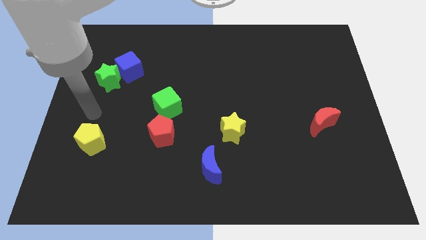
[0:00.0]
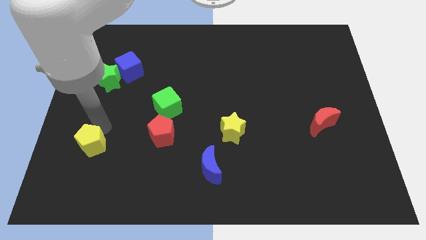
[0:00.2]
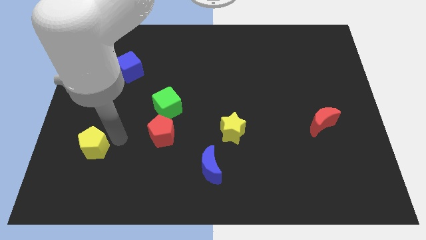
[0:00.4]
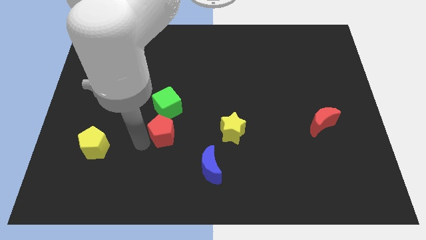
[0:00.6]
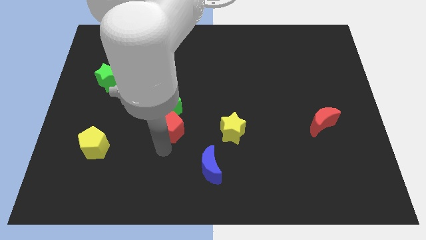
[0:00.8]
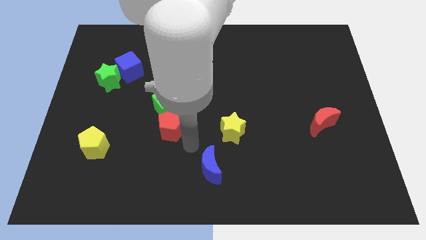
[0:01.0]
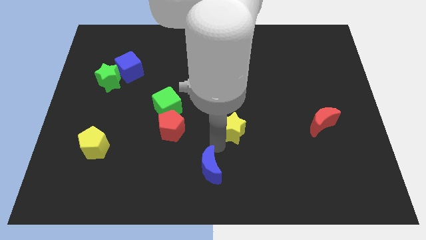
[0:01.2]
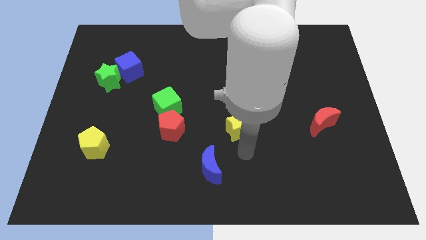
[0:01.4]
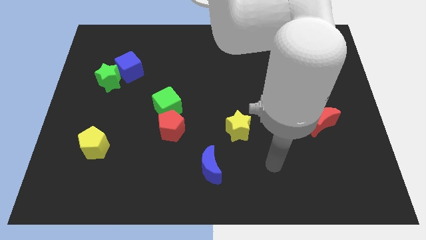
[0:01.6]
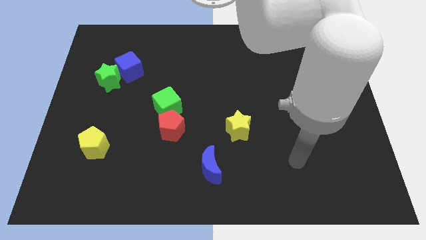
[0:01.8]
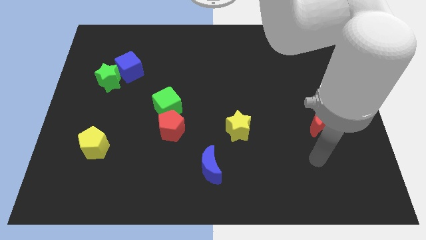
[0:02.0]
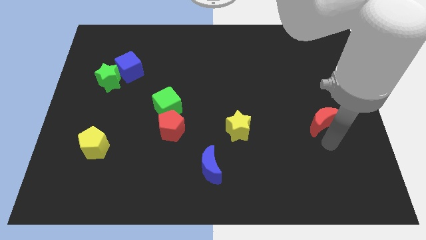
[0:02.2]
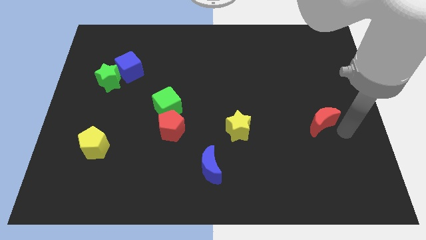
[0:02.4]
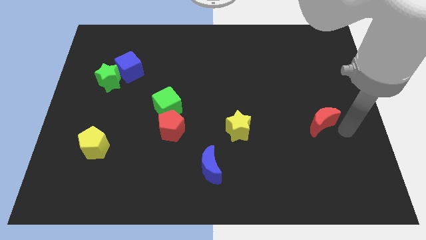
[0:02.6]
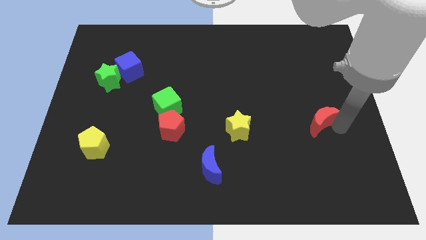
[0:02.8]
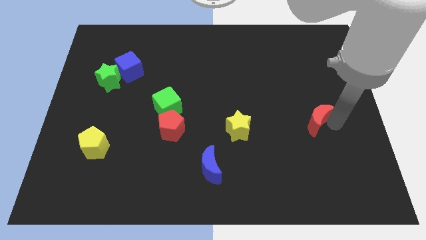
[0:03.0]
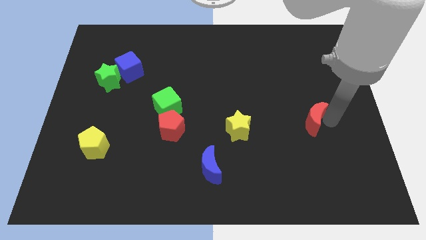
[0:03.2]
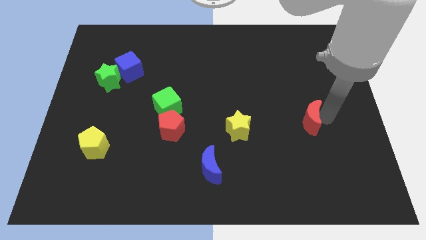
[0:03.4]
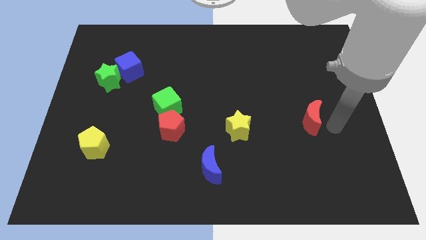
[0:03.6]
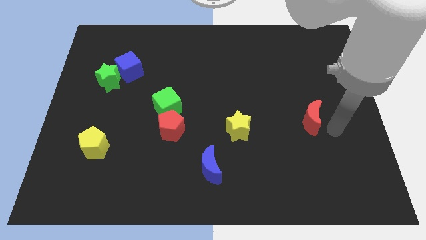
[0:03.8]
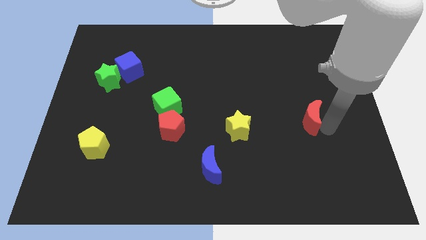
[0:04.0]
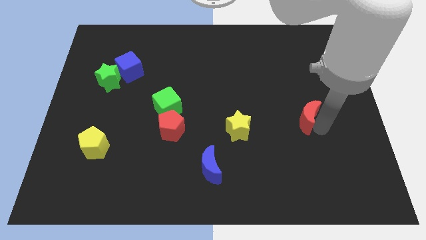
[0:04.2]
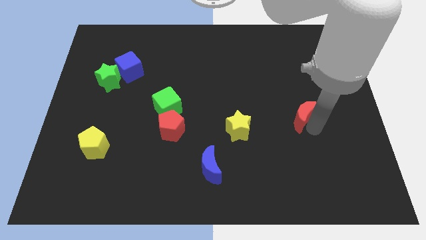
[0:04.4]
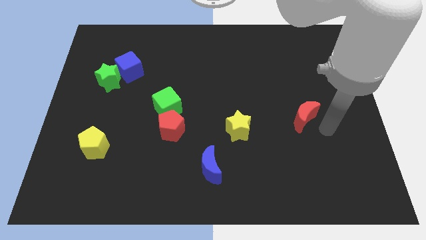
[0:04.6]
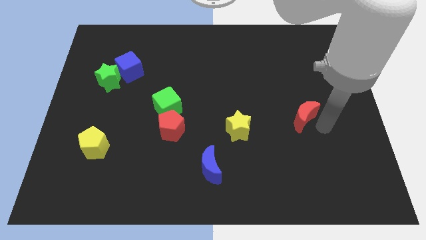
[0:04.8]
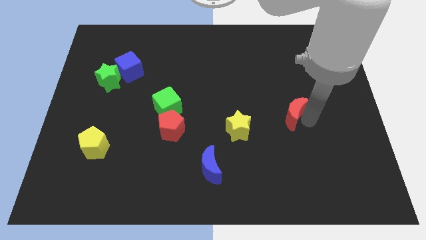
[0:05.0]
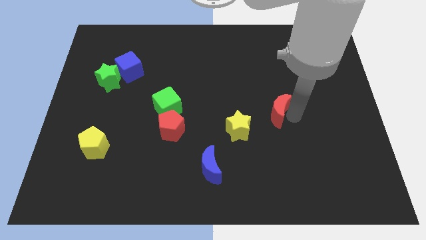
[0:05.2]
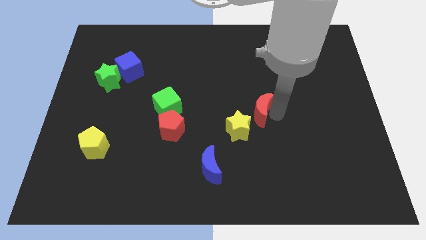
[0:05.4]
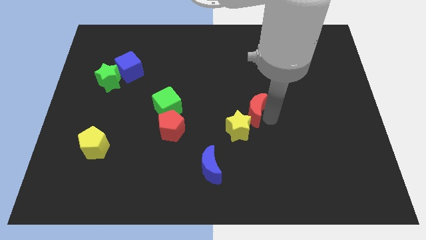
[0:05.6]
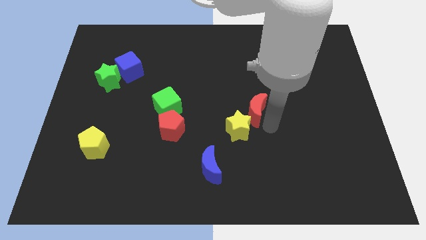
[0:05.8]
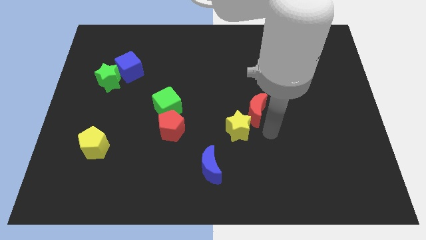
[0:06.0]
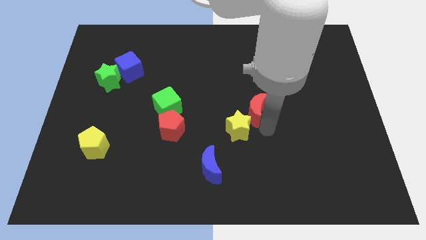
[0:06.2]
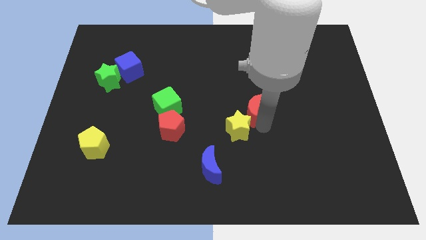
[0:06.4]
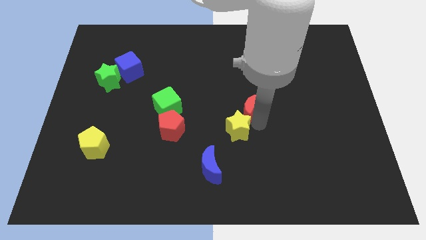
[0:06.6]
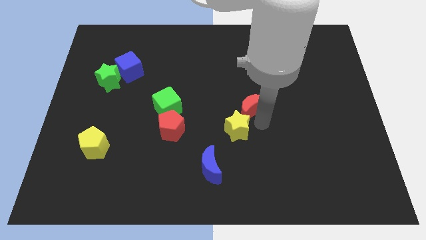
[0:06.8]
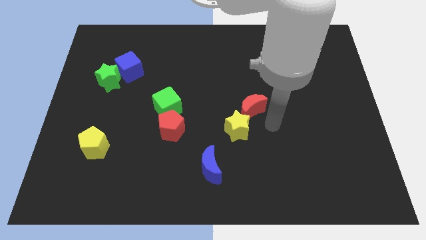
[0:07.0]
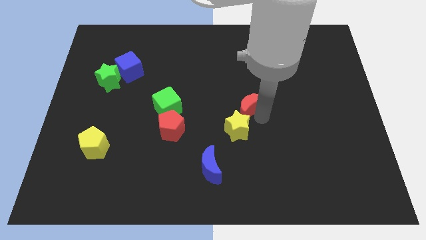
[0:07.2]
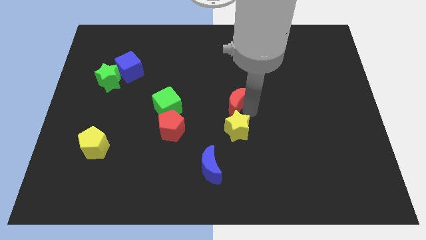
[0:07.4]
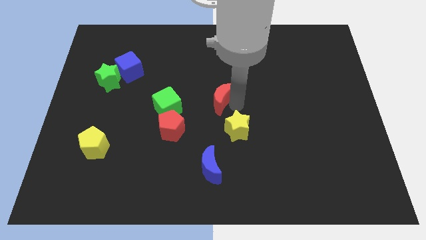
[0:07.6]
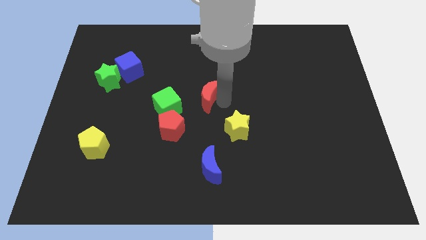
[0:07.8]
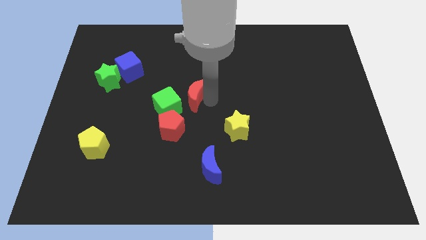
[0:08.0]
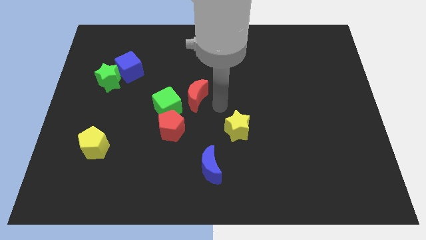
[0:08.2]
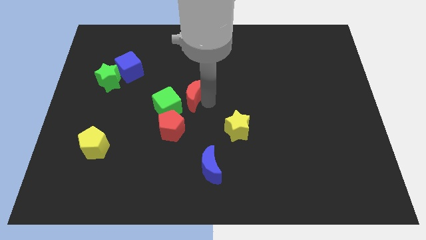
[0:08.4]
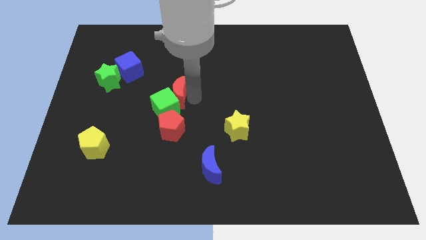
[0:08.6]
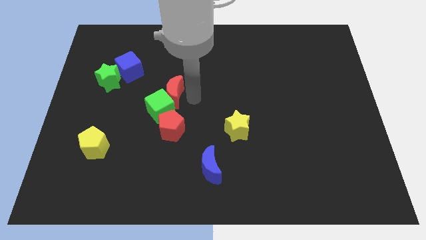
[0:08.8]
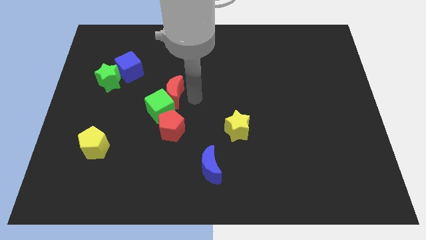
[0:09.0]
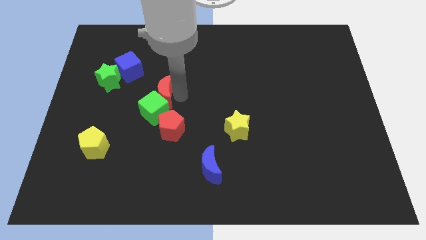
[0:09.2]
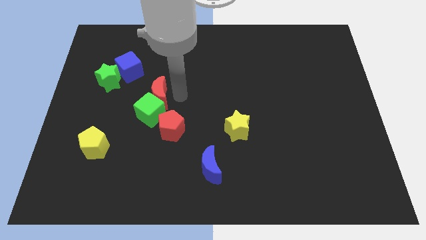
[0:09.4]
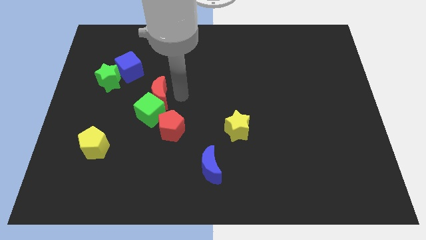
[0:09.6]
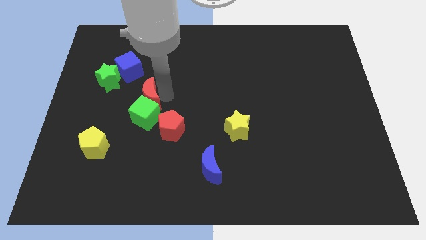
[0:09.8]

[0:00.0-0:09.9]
slide the red moon diagonally down and to the right of the green star

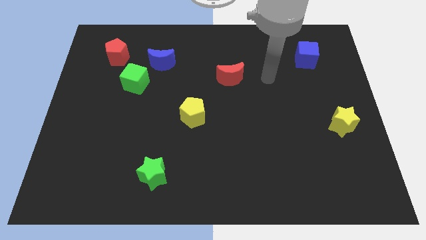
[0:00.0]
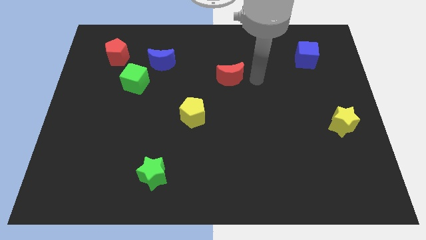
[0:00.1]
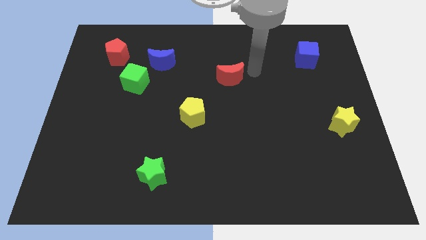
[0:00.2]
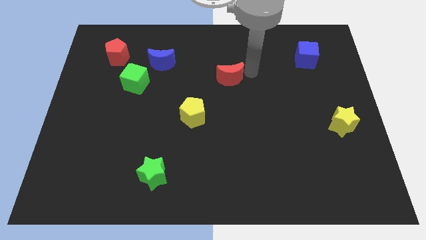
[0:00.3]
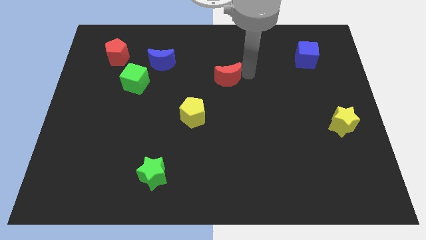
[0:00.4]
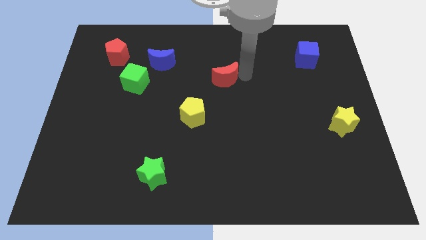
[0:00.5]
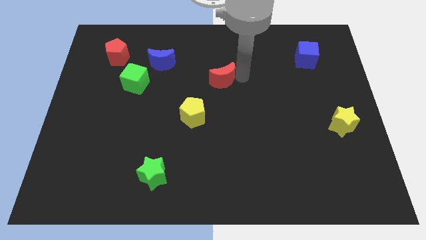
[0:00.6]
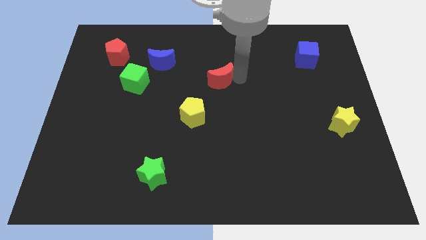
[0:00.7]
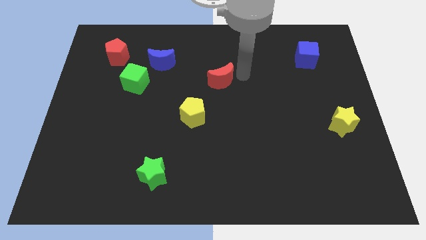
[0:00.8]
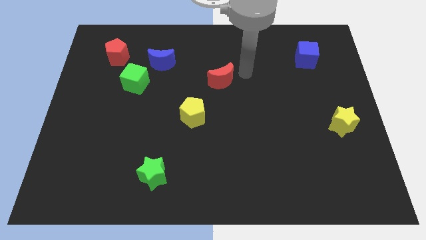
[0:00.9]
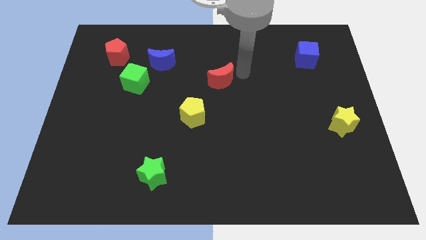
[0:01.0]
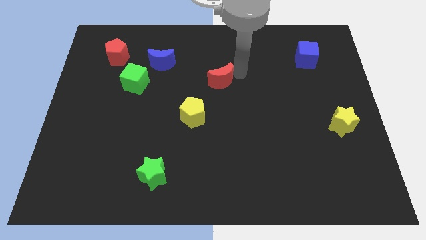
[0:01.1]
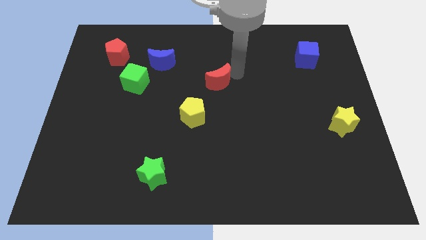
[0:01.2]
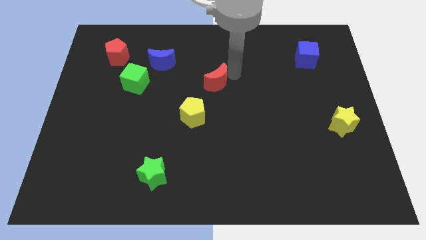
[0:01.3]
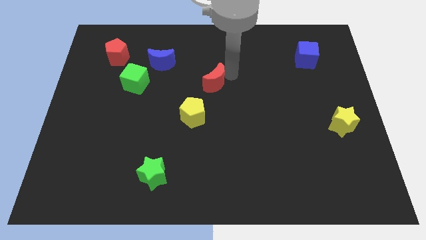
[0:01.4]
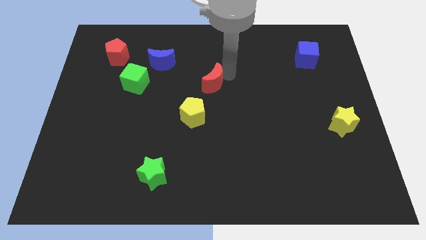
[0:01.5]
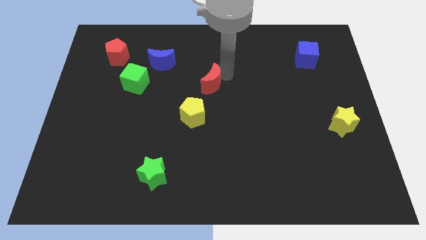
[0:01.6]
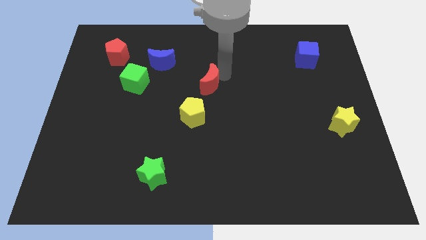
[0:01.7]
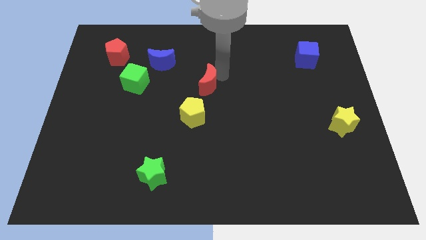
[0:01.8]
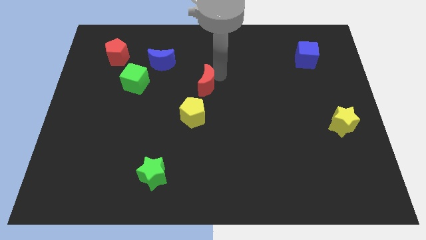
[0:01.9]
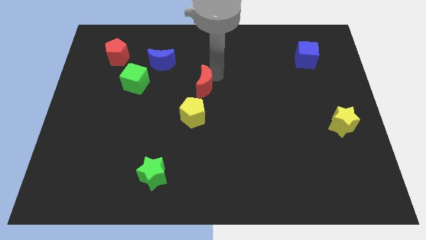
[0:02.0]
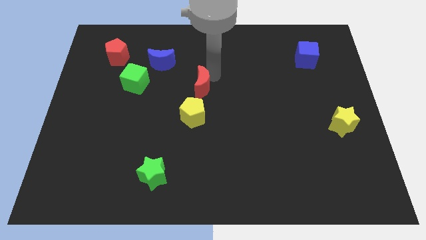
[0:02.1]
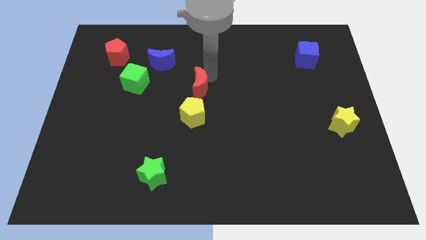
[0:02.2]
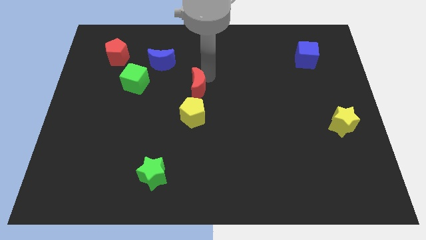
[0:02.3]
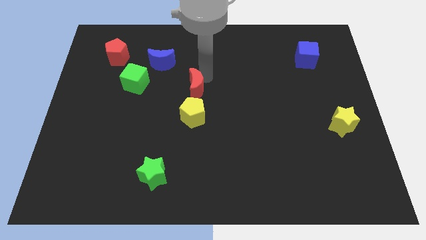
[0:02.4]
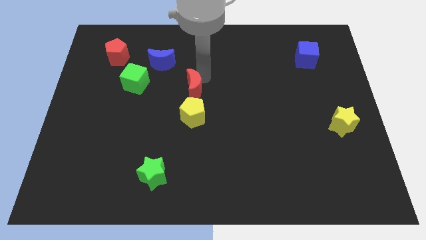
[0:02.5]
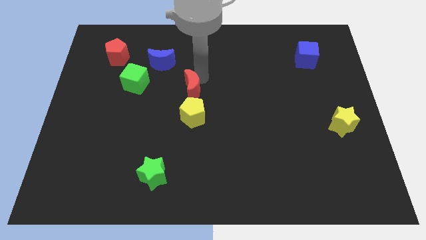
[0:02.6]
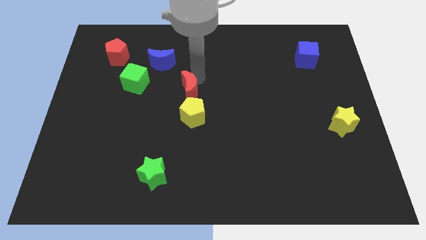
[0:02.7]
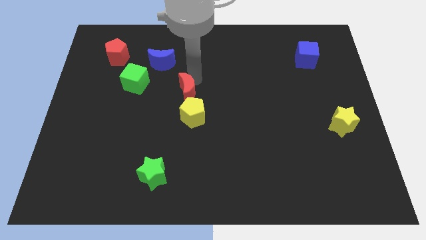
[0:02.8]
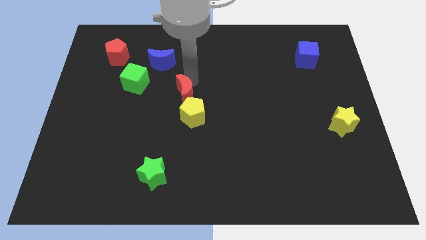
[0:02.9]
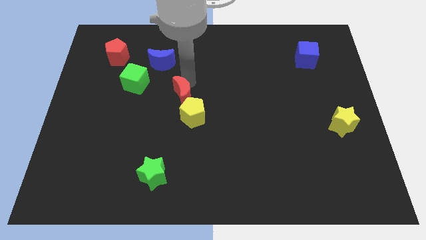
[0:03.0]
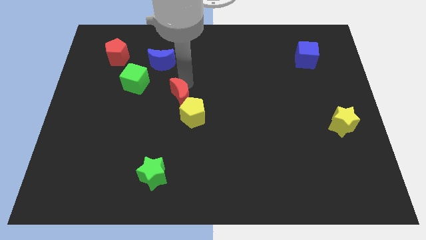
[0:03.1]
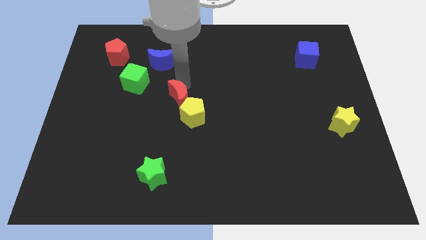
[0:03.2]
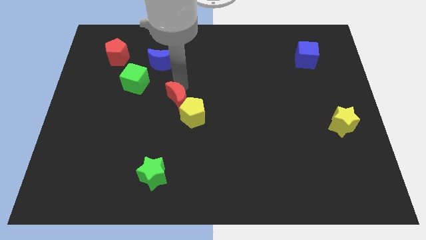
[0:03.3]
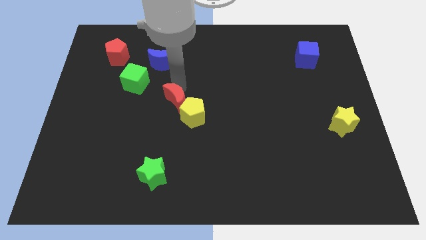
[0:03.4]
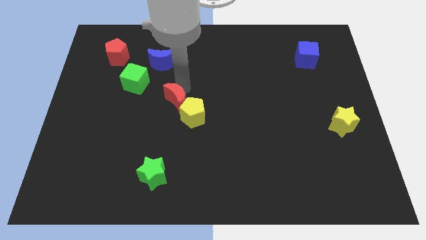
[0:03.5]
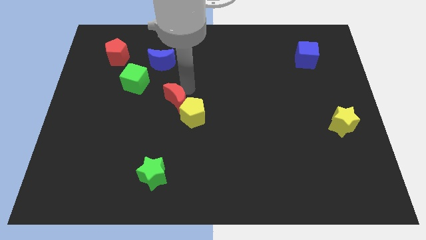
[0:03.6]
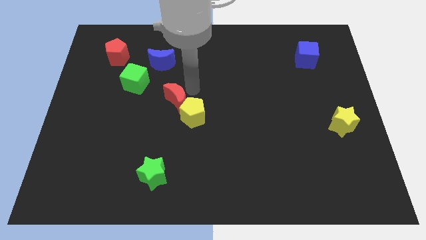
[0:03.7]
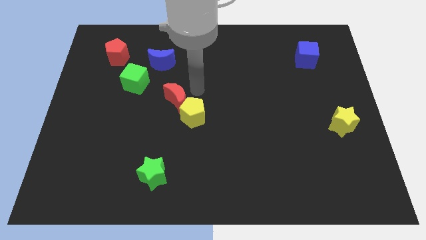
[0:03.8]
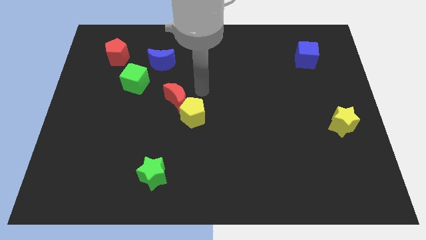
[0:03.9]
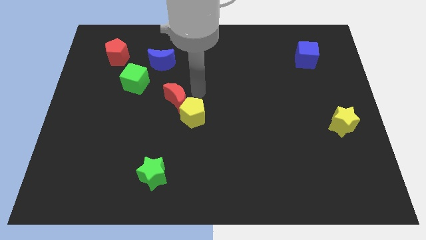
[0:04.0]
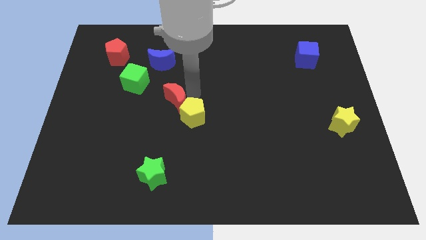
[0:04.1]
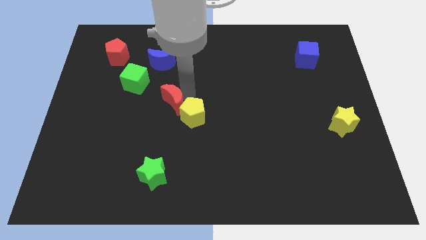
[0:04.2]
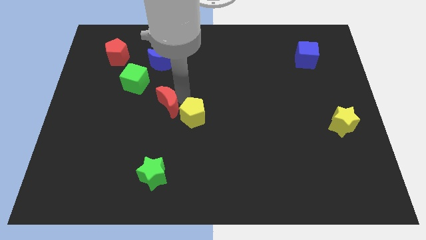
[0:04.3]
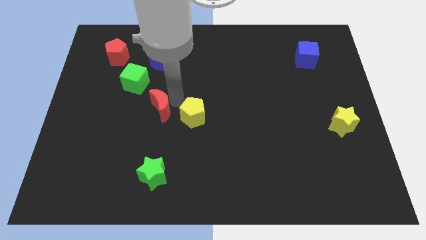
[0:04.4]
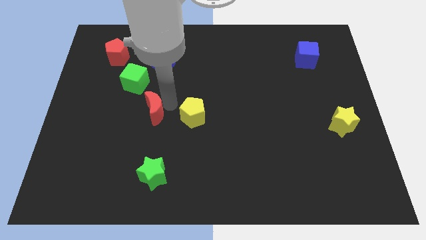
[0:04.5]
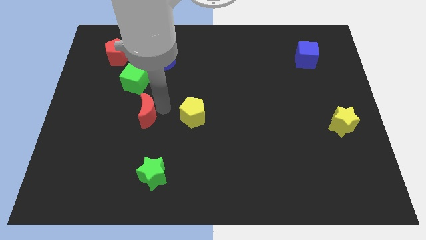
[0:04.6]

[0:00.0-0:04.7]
put the red moon to the bottom of the green cube
